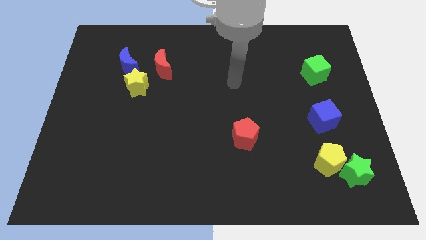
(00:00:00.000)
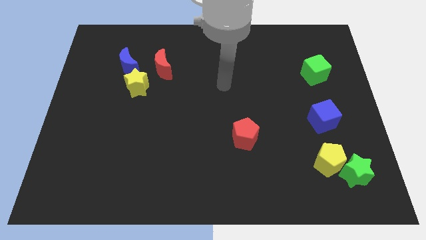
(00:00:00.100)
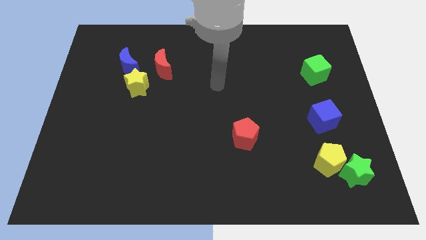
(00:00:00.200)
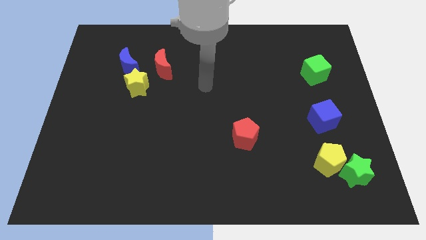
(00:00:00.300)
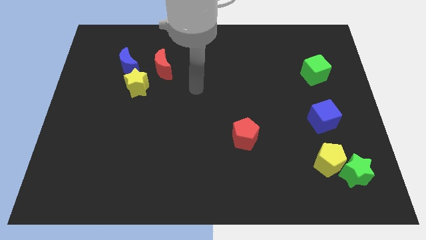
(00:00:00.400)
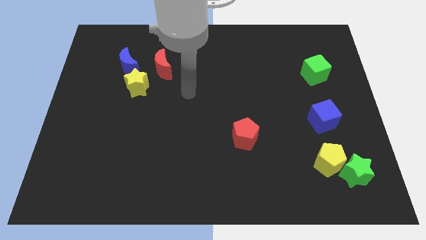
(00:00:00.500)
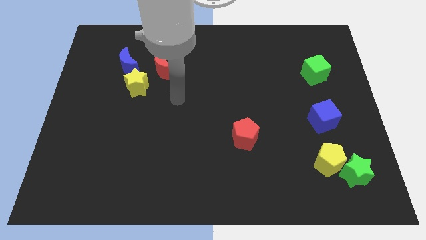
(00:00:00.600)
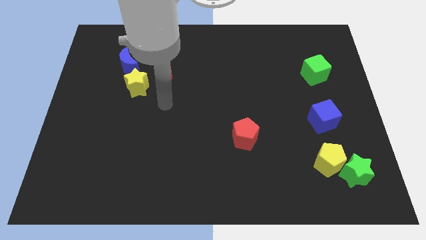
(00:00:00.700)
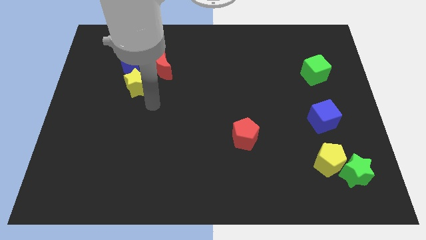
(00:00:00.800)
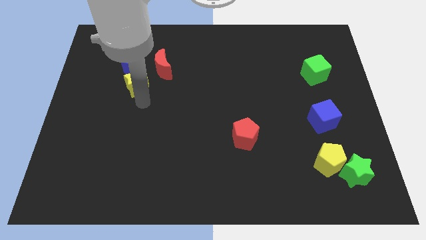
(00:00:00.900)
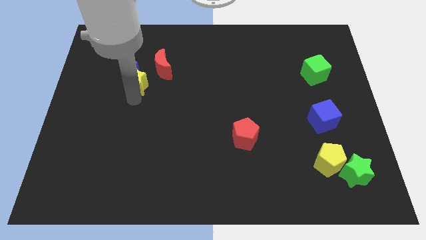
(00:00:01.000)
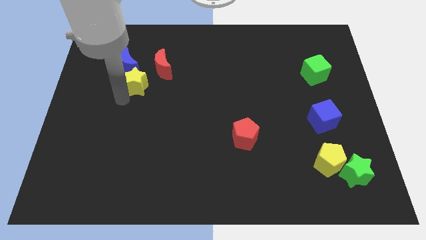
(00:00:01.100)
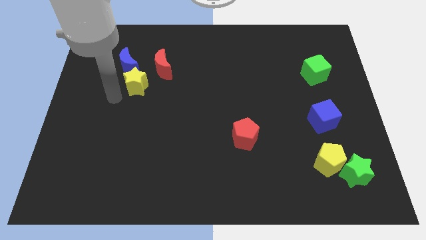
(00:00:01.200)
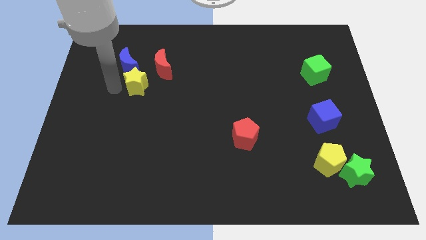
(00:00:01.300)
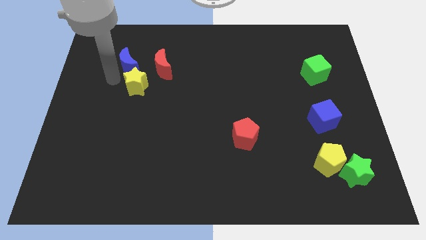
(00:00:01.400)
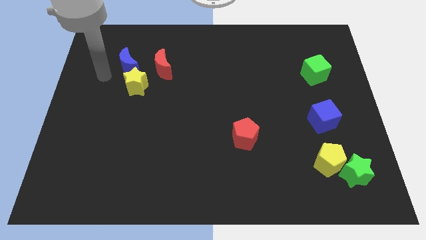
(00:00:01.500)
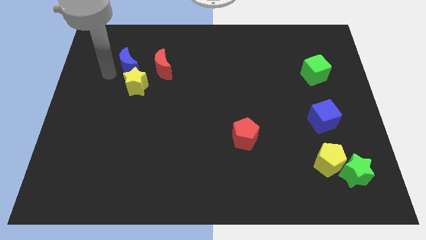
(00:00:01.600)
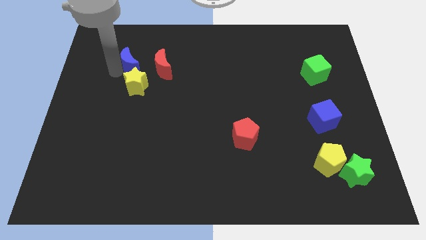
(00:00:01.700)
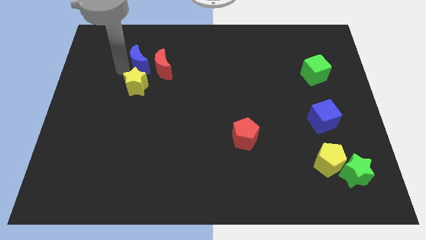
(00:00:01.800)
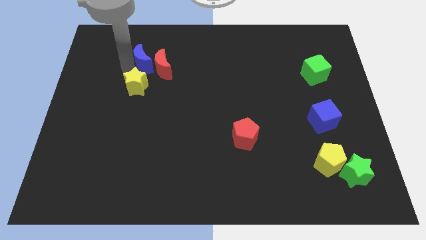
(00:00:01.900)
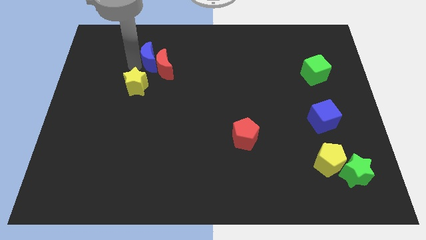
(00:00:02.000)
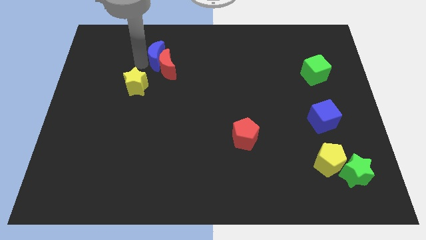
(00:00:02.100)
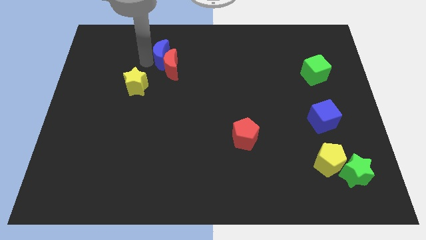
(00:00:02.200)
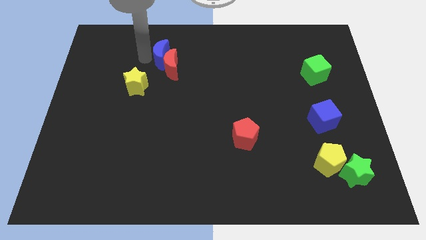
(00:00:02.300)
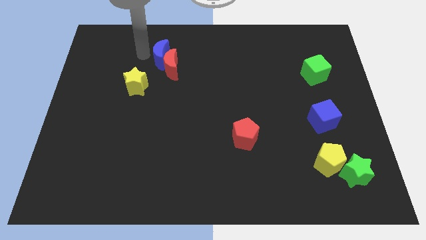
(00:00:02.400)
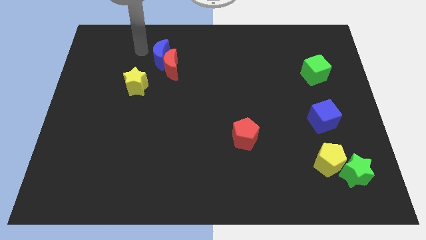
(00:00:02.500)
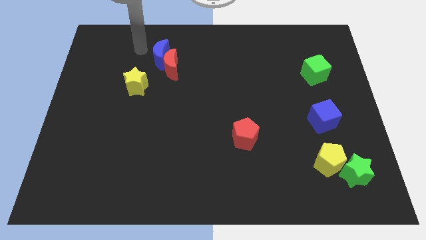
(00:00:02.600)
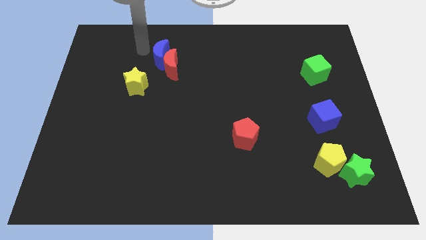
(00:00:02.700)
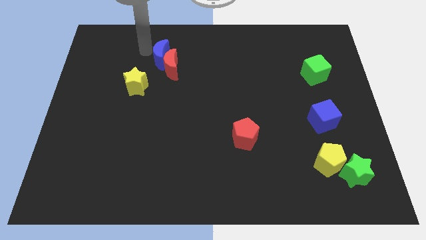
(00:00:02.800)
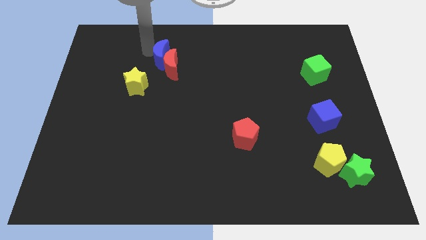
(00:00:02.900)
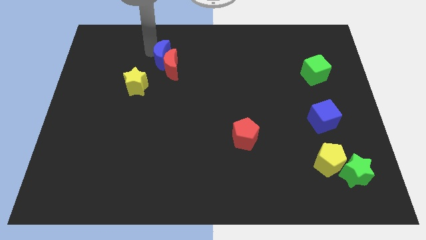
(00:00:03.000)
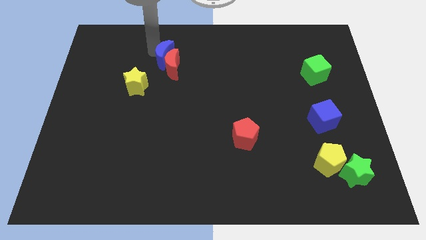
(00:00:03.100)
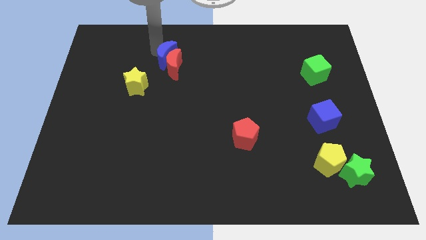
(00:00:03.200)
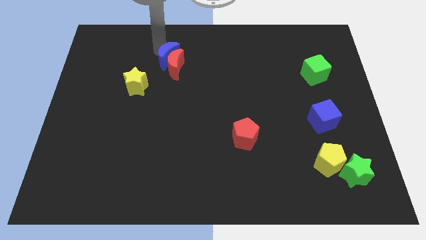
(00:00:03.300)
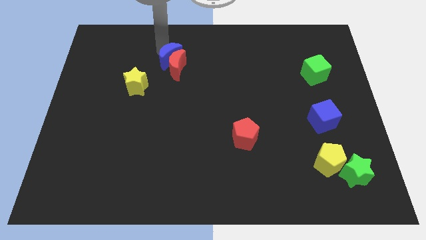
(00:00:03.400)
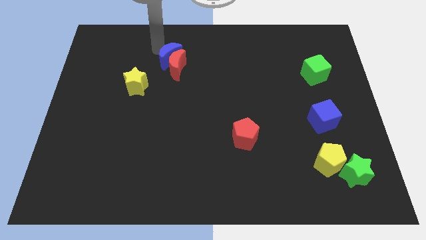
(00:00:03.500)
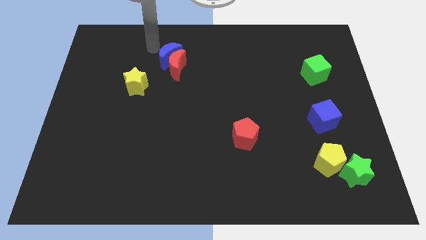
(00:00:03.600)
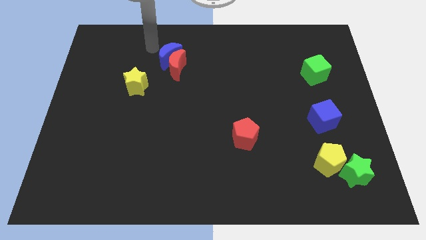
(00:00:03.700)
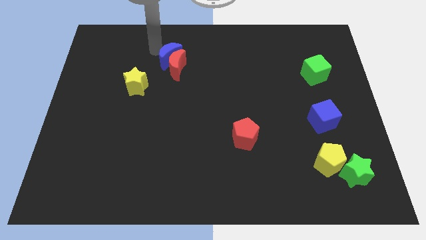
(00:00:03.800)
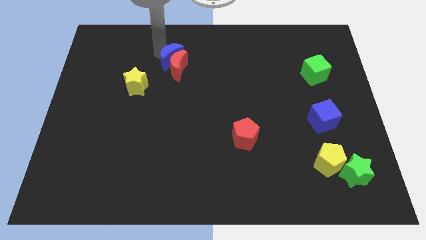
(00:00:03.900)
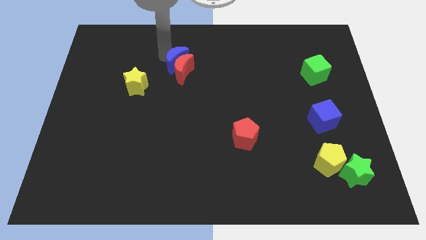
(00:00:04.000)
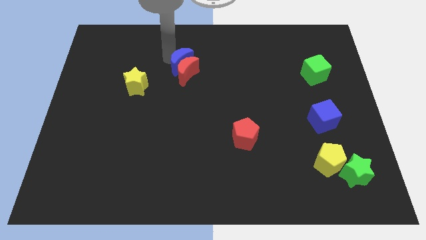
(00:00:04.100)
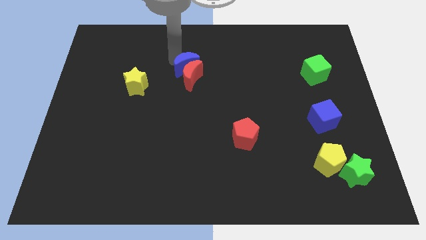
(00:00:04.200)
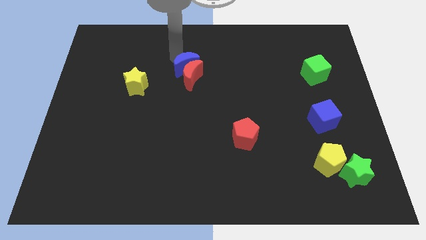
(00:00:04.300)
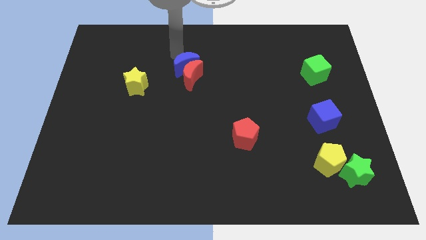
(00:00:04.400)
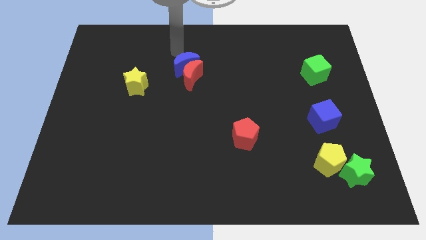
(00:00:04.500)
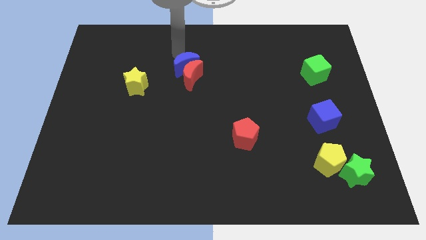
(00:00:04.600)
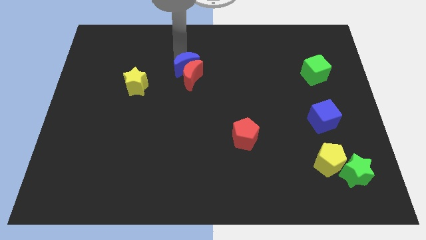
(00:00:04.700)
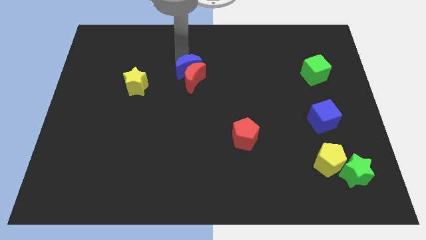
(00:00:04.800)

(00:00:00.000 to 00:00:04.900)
put the blue moon to the center of the board

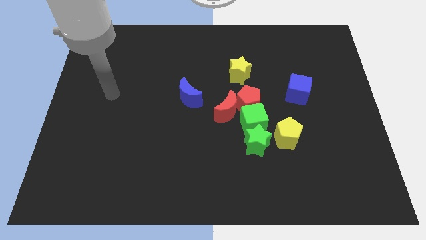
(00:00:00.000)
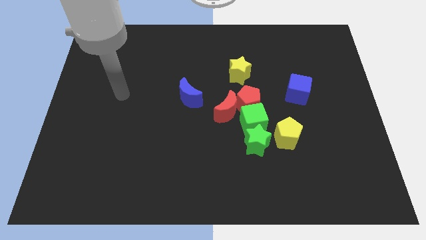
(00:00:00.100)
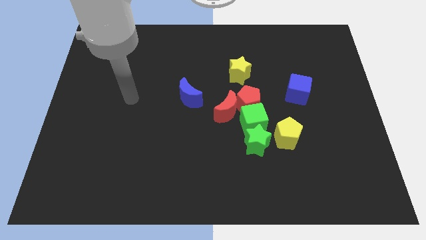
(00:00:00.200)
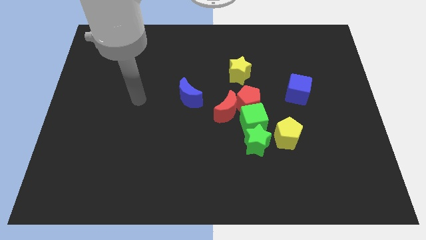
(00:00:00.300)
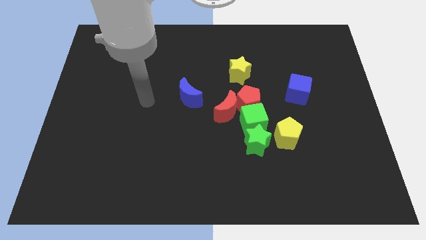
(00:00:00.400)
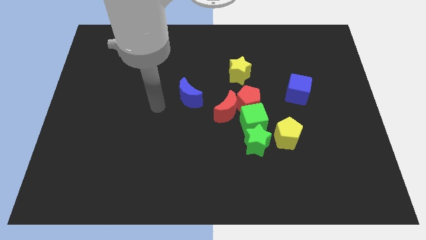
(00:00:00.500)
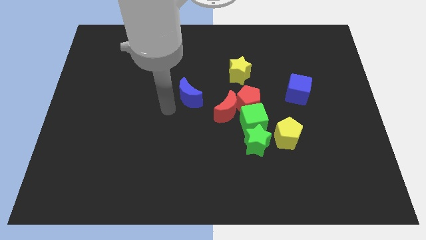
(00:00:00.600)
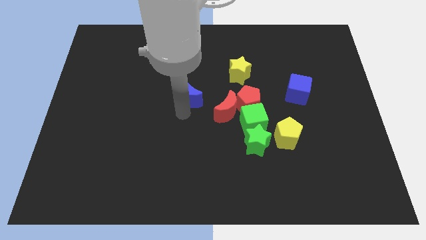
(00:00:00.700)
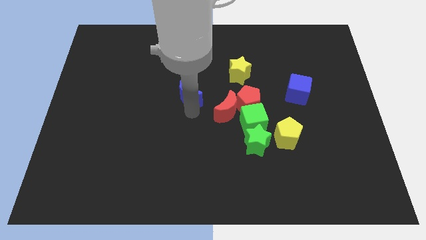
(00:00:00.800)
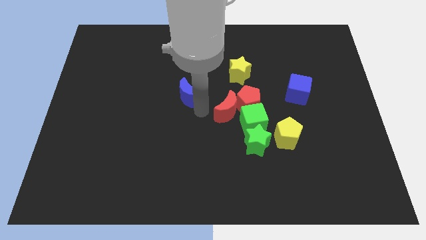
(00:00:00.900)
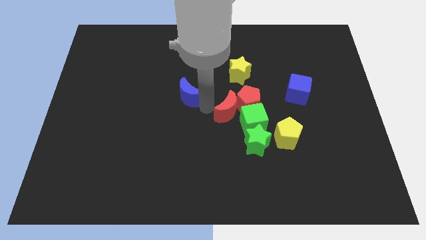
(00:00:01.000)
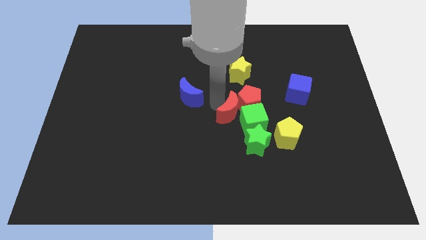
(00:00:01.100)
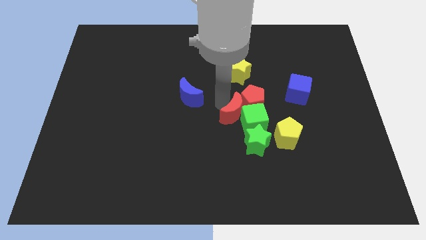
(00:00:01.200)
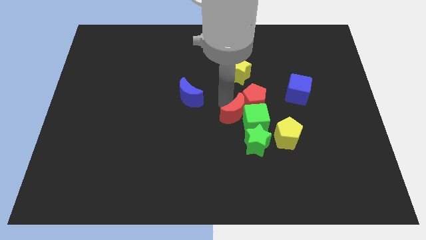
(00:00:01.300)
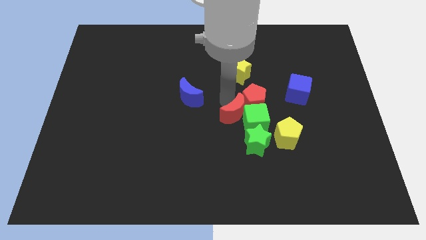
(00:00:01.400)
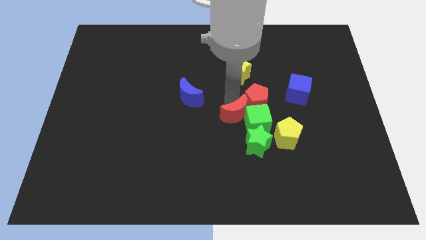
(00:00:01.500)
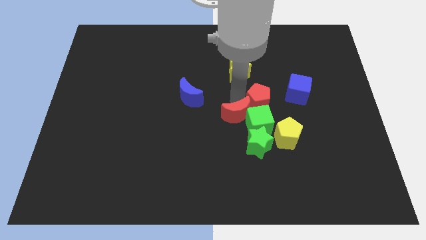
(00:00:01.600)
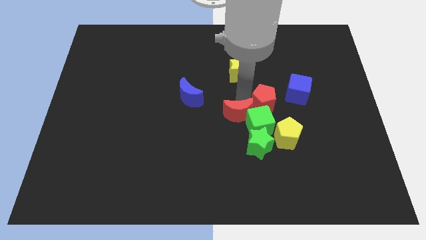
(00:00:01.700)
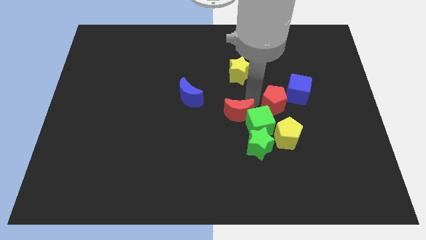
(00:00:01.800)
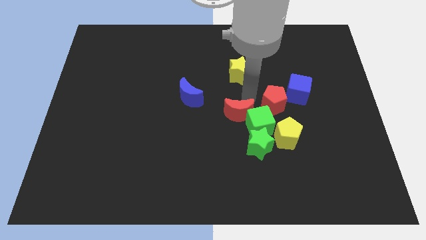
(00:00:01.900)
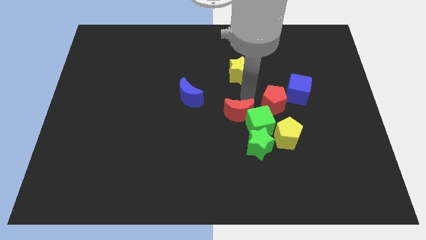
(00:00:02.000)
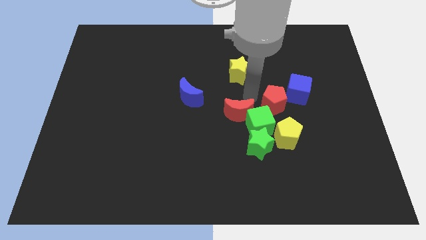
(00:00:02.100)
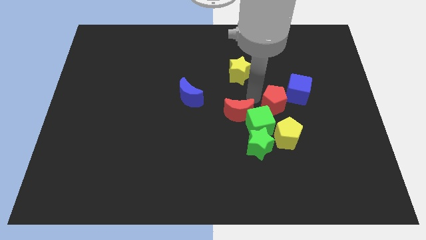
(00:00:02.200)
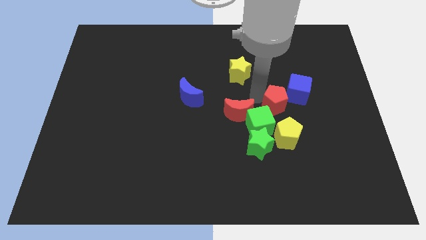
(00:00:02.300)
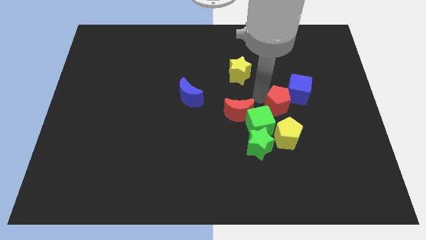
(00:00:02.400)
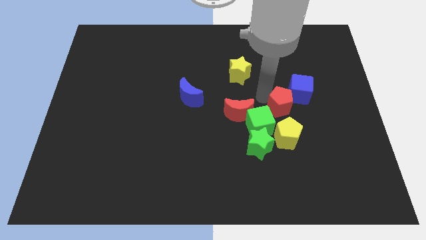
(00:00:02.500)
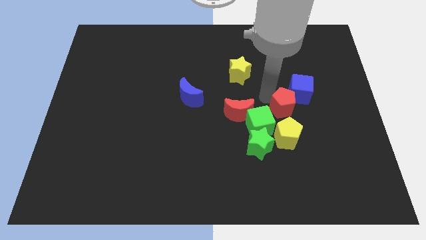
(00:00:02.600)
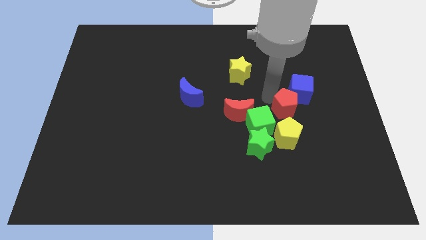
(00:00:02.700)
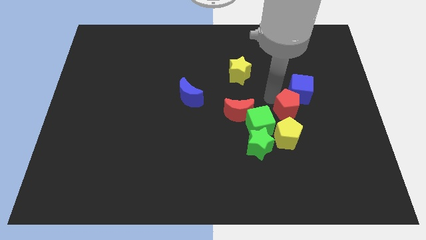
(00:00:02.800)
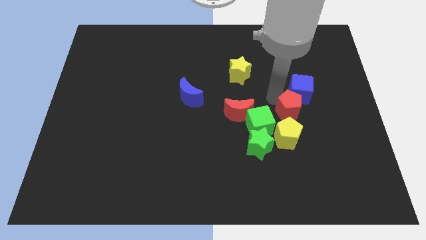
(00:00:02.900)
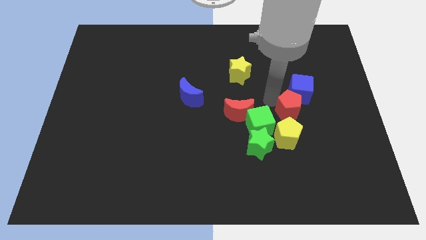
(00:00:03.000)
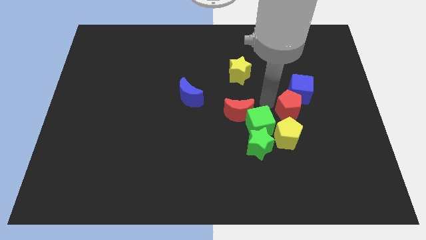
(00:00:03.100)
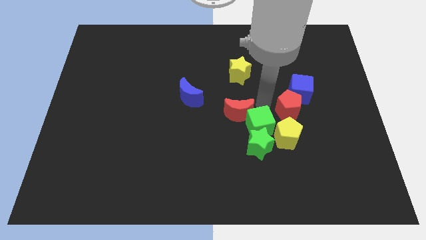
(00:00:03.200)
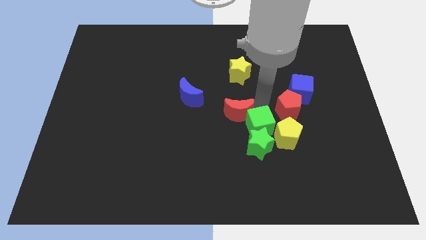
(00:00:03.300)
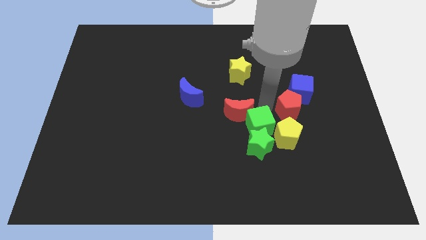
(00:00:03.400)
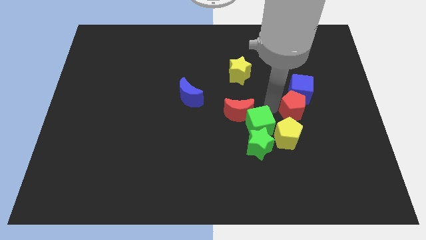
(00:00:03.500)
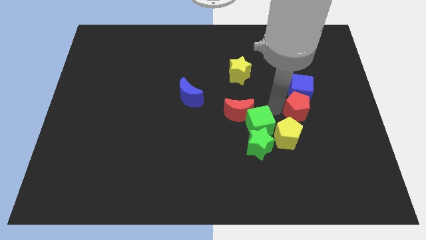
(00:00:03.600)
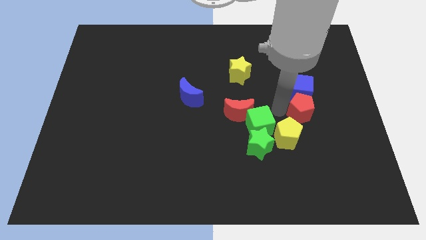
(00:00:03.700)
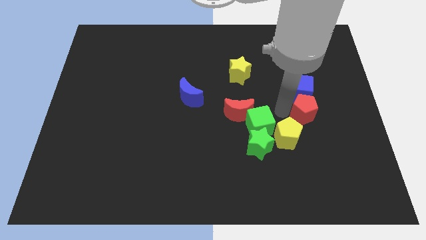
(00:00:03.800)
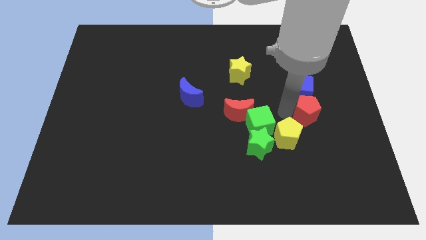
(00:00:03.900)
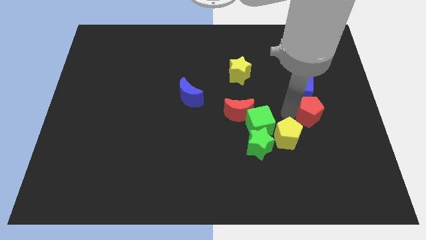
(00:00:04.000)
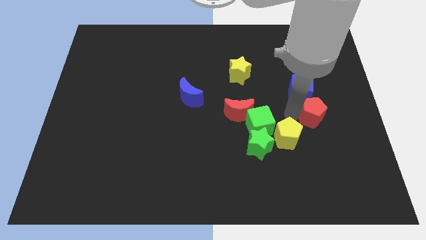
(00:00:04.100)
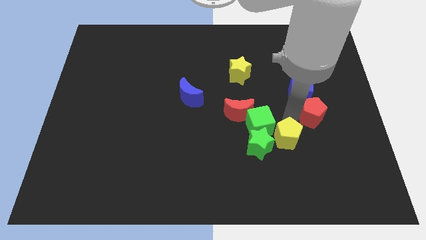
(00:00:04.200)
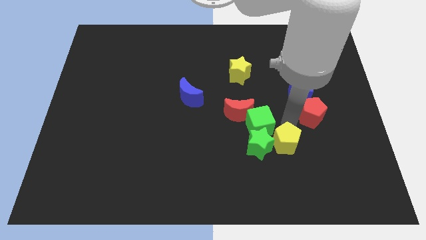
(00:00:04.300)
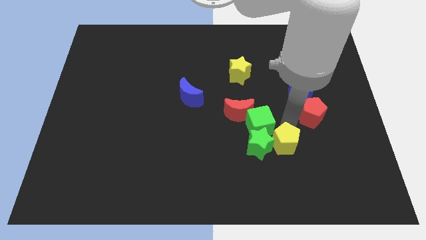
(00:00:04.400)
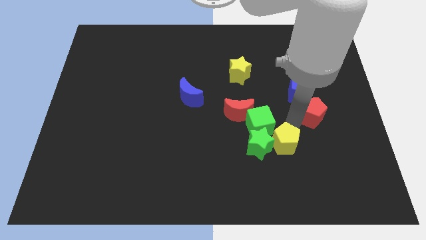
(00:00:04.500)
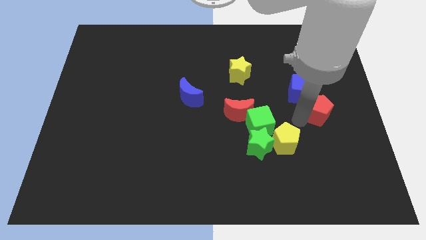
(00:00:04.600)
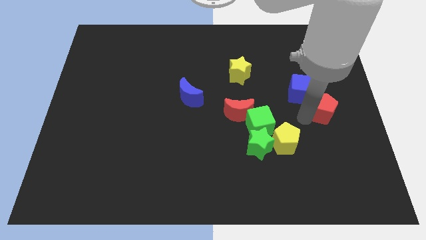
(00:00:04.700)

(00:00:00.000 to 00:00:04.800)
push the red pentagon to the center right
